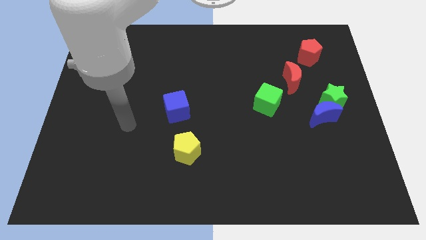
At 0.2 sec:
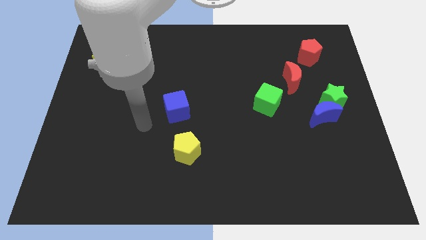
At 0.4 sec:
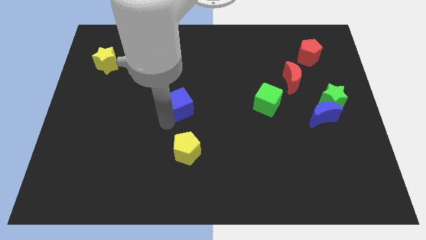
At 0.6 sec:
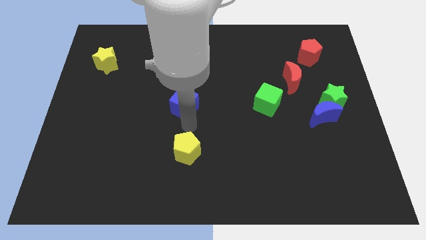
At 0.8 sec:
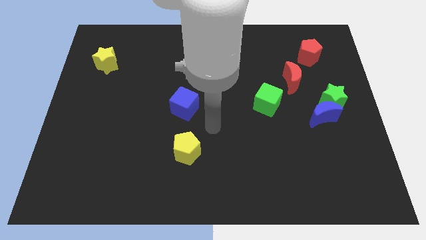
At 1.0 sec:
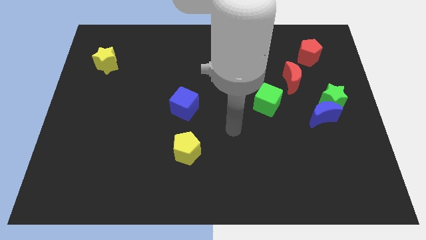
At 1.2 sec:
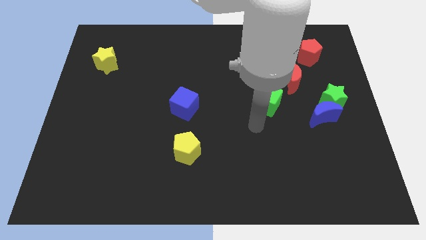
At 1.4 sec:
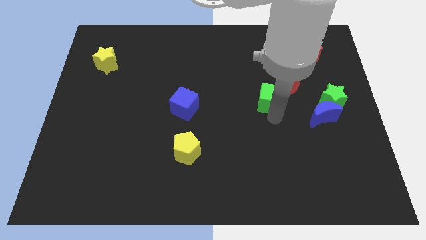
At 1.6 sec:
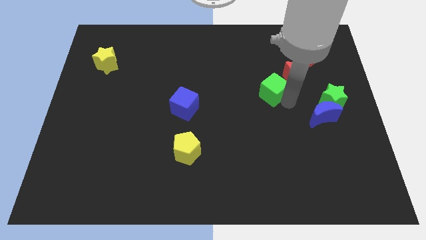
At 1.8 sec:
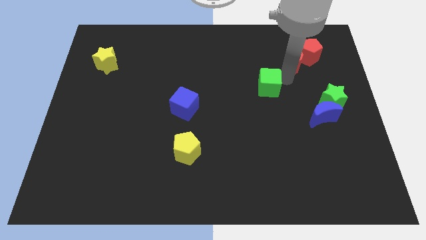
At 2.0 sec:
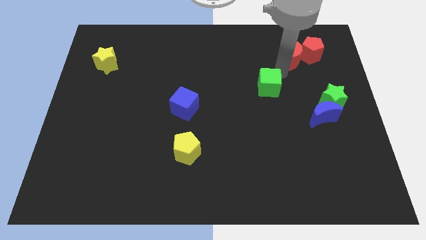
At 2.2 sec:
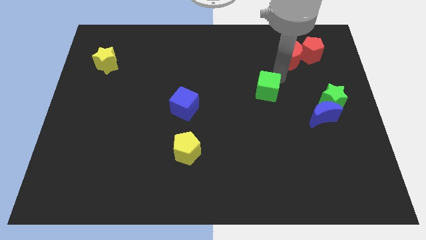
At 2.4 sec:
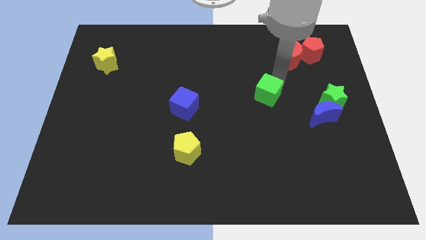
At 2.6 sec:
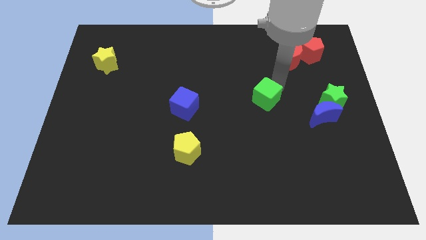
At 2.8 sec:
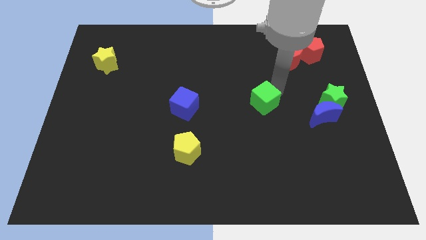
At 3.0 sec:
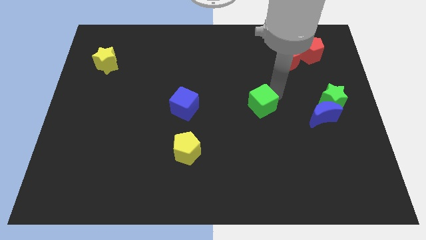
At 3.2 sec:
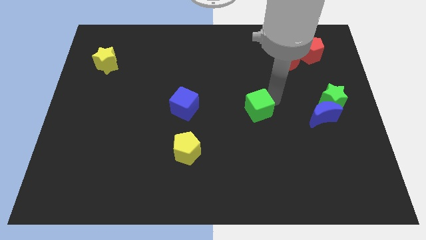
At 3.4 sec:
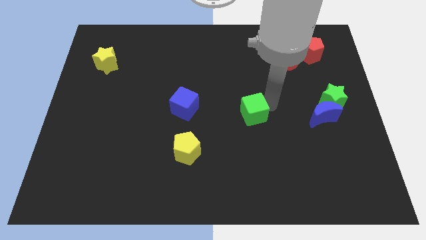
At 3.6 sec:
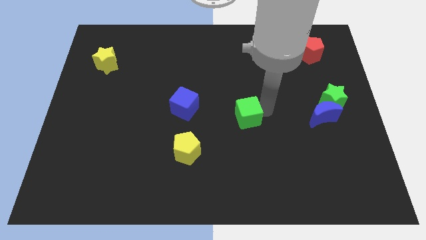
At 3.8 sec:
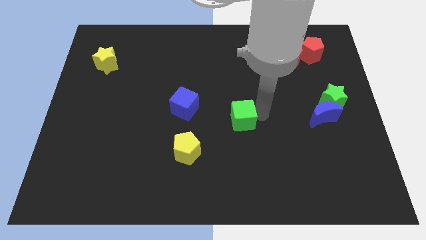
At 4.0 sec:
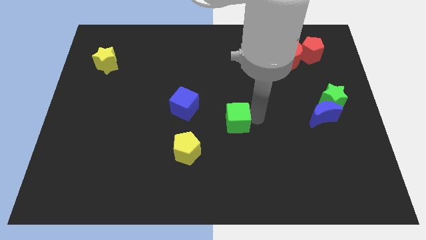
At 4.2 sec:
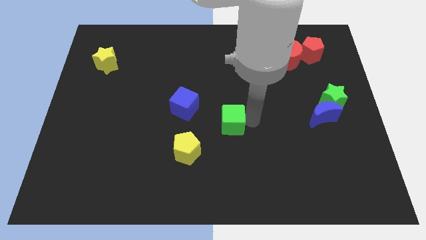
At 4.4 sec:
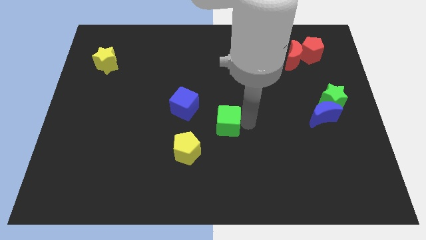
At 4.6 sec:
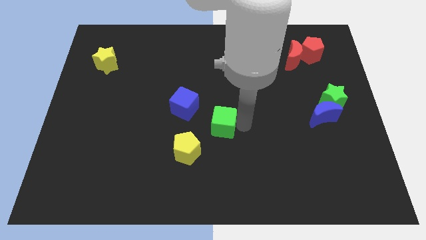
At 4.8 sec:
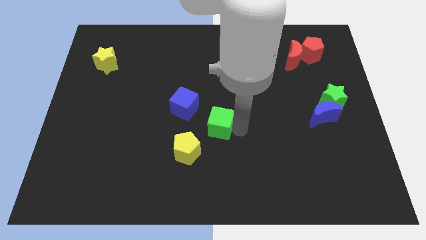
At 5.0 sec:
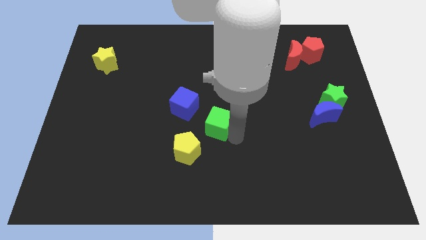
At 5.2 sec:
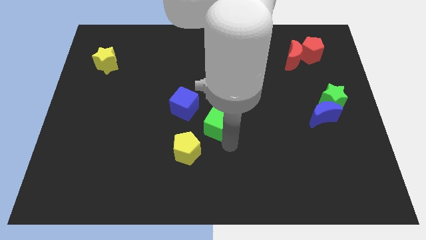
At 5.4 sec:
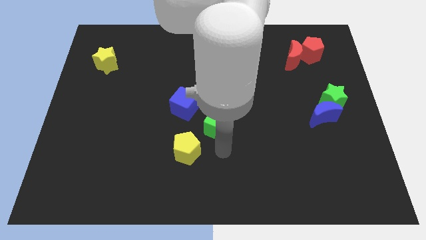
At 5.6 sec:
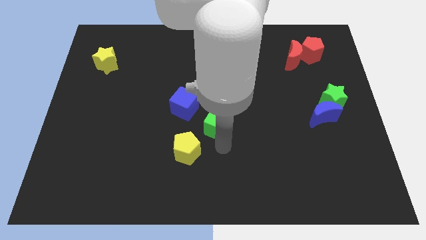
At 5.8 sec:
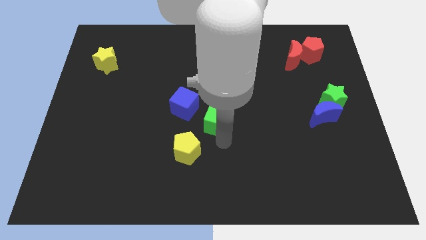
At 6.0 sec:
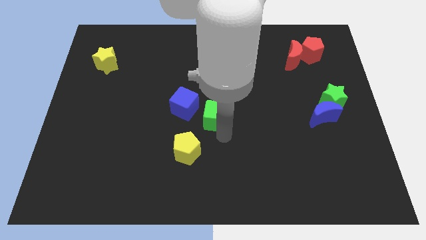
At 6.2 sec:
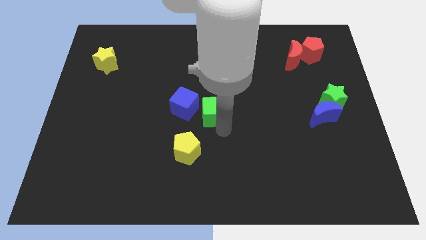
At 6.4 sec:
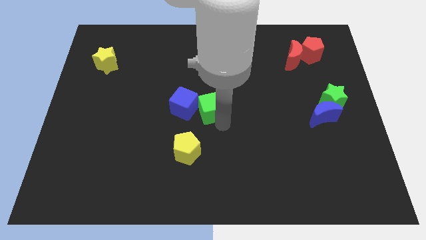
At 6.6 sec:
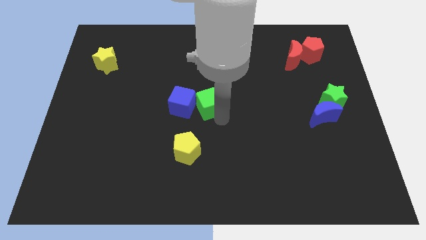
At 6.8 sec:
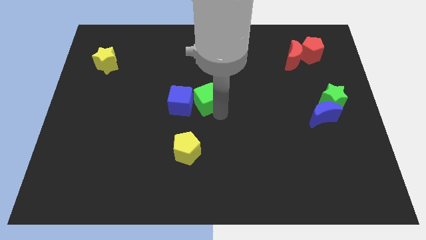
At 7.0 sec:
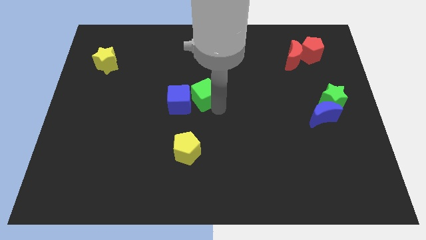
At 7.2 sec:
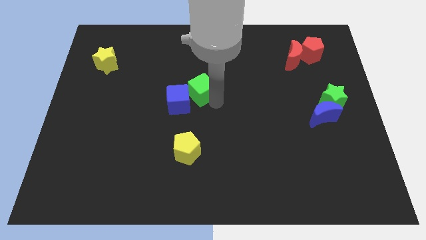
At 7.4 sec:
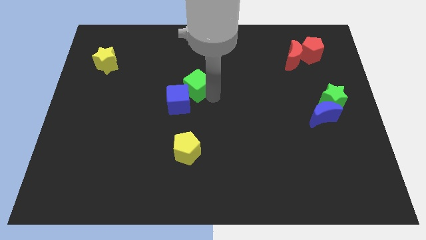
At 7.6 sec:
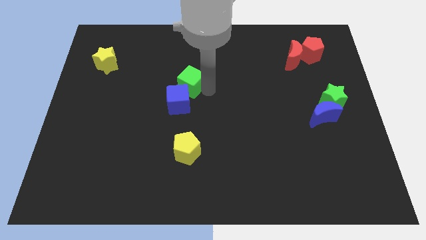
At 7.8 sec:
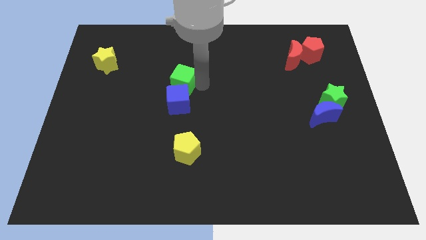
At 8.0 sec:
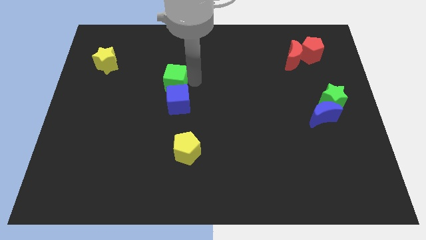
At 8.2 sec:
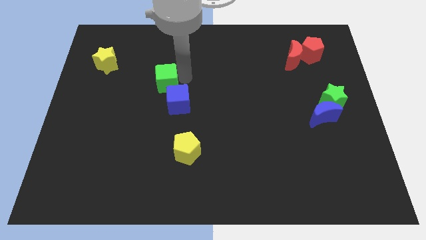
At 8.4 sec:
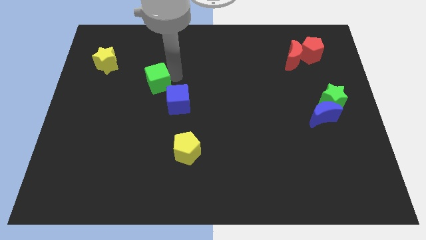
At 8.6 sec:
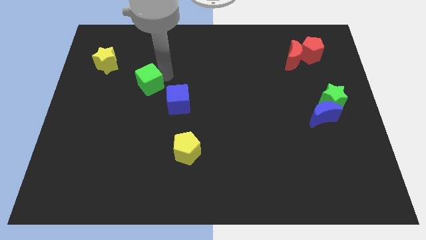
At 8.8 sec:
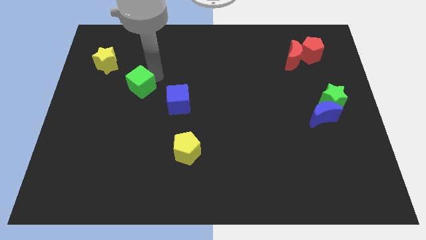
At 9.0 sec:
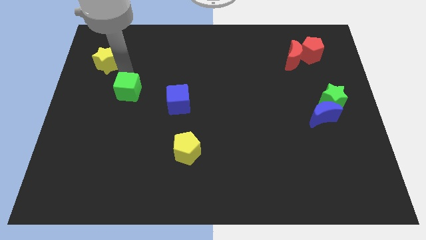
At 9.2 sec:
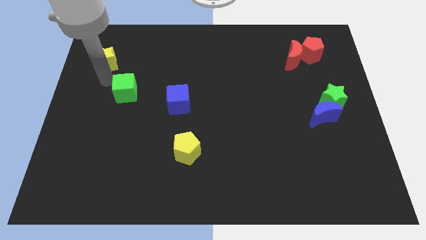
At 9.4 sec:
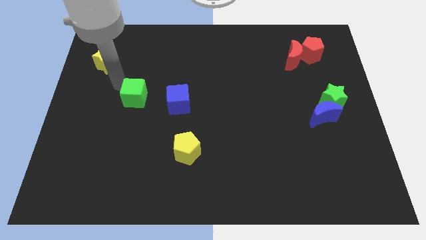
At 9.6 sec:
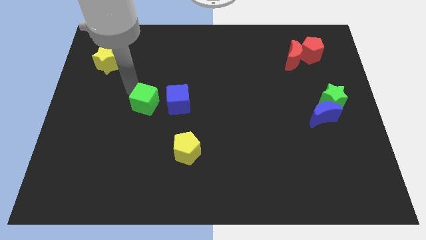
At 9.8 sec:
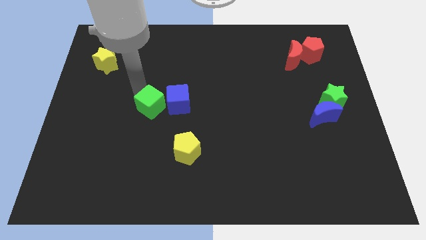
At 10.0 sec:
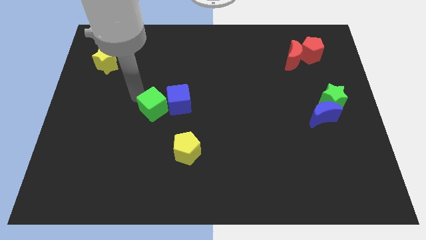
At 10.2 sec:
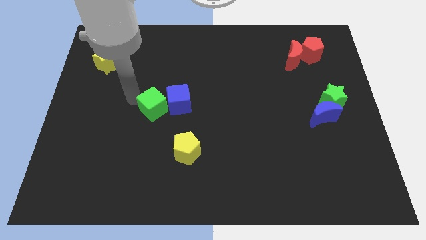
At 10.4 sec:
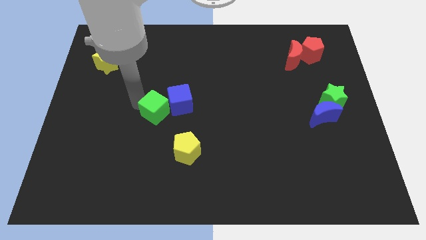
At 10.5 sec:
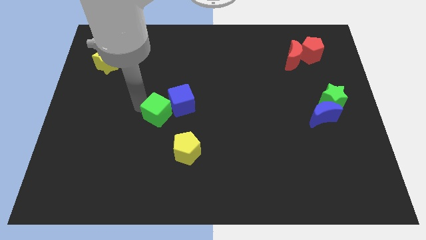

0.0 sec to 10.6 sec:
slide the green cube to the top left side of the yellow pentagon

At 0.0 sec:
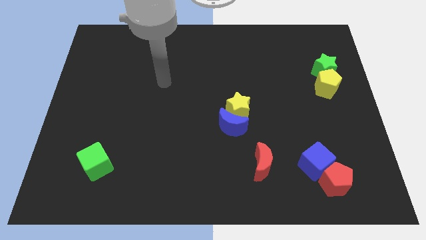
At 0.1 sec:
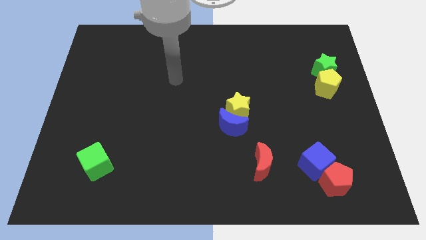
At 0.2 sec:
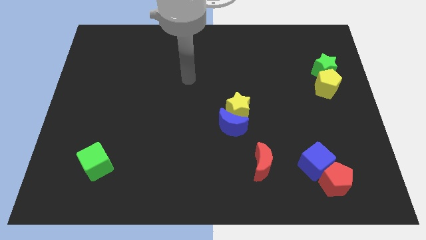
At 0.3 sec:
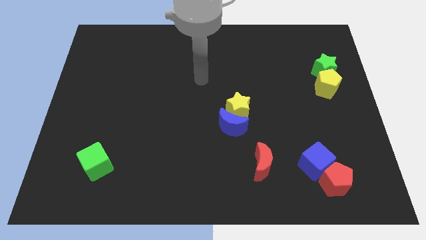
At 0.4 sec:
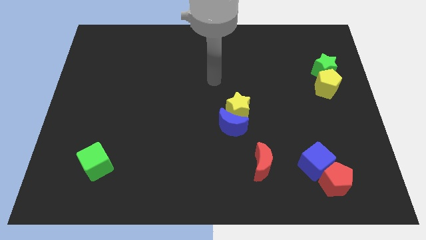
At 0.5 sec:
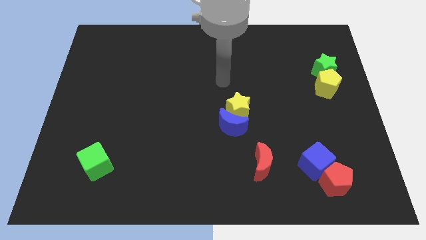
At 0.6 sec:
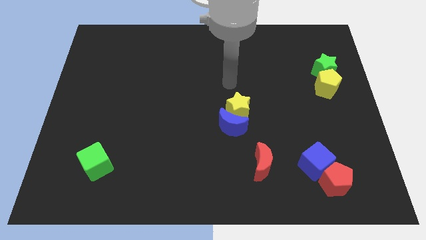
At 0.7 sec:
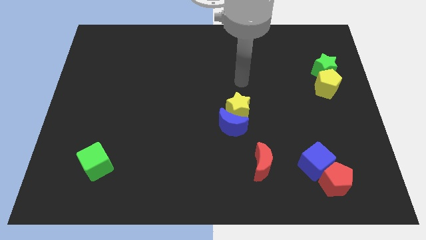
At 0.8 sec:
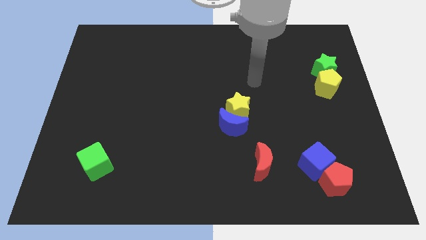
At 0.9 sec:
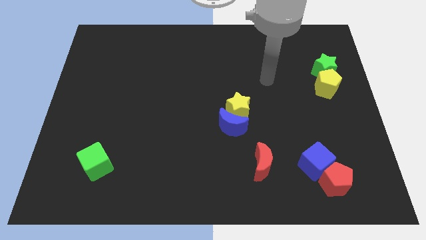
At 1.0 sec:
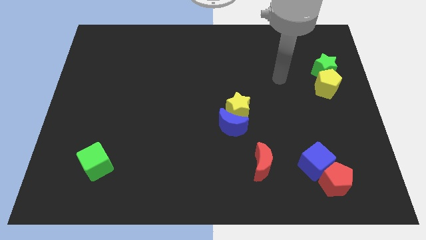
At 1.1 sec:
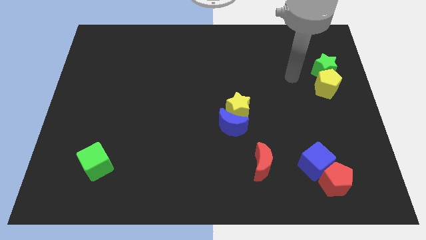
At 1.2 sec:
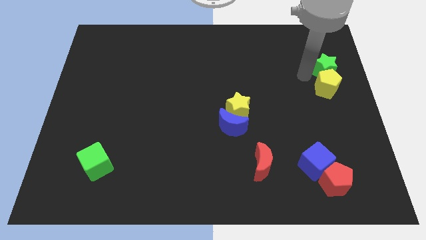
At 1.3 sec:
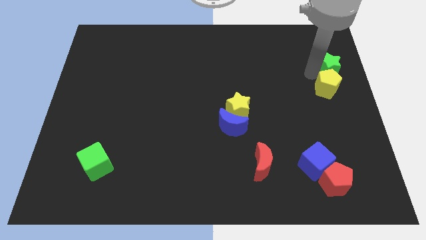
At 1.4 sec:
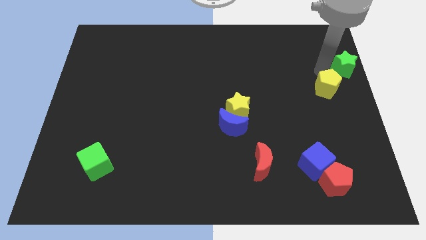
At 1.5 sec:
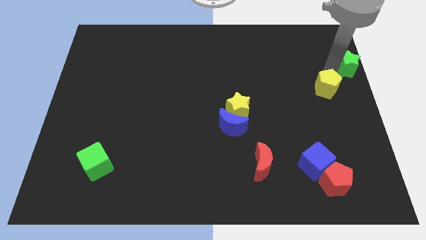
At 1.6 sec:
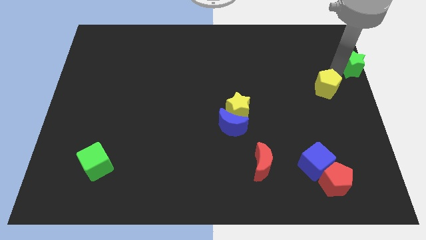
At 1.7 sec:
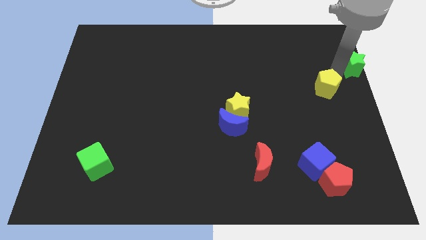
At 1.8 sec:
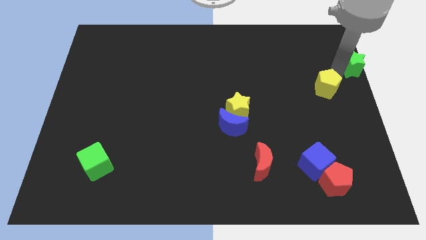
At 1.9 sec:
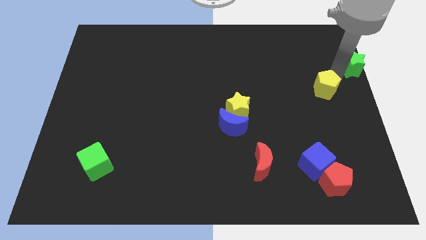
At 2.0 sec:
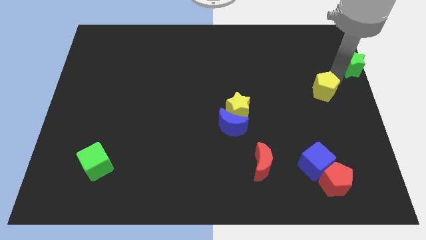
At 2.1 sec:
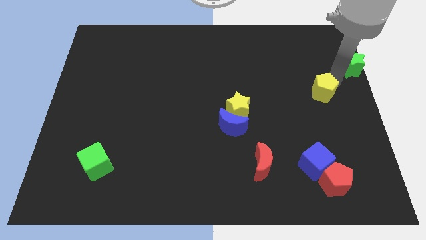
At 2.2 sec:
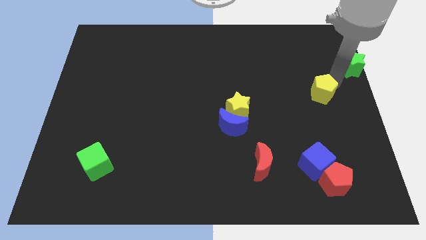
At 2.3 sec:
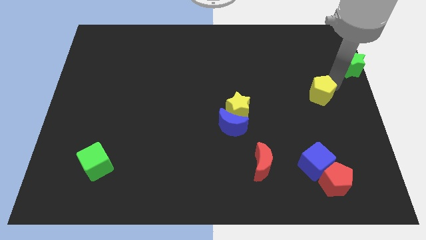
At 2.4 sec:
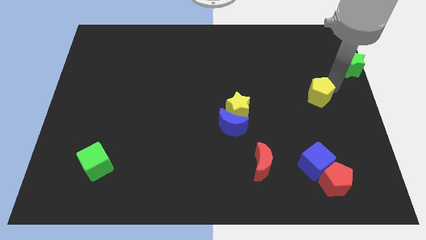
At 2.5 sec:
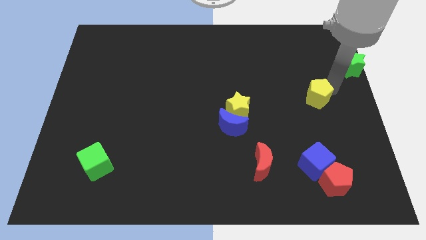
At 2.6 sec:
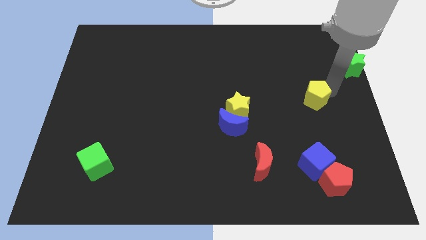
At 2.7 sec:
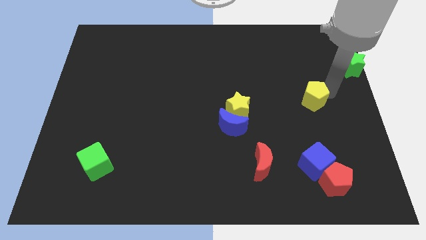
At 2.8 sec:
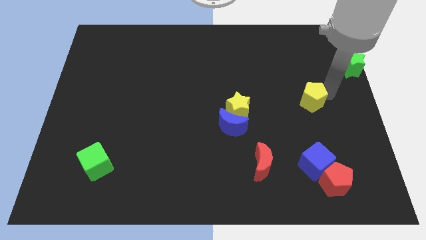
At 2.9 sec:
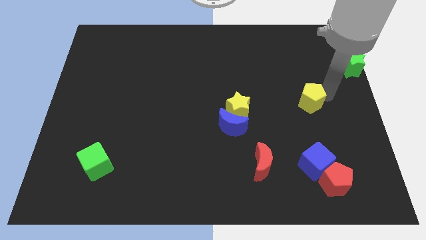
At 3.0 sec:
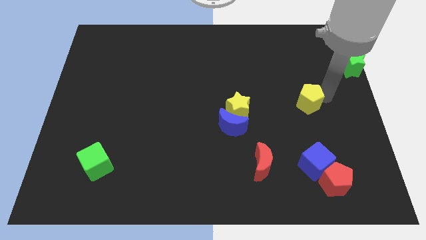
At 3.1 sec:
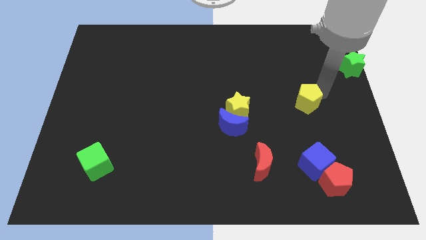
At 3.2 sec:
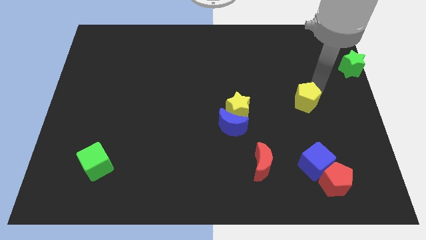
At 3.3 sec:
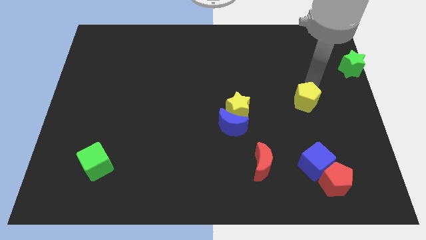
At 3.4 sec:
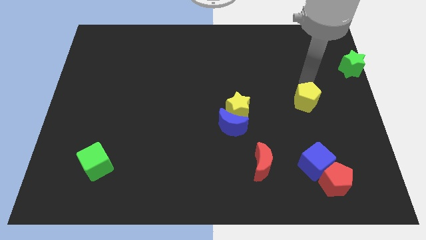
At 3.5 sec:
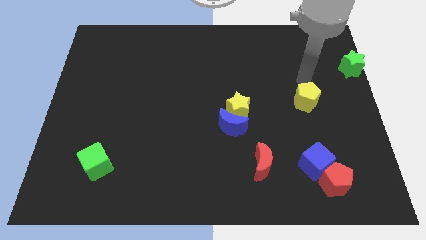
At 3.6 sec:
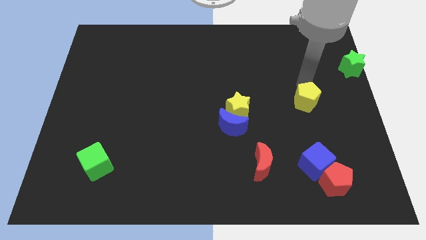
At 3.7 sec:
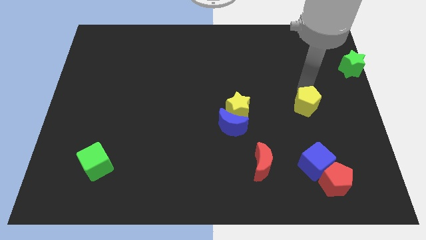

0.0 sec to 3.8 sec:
put the yellow pentagon above the blue cube
